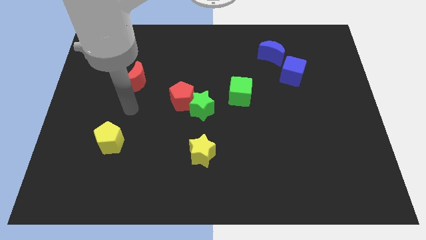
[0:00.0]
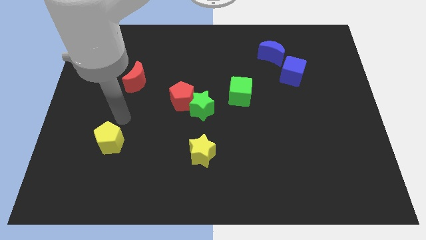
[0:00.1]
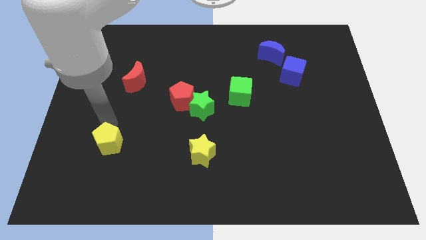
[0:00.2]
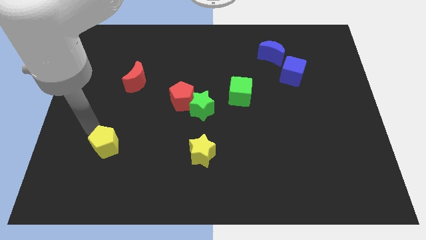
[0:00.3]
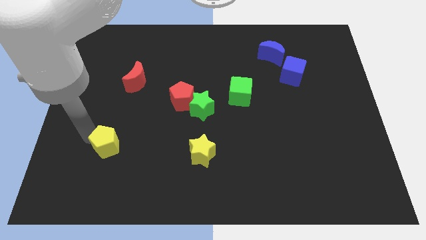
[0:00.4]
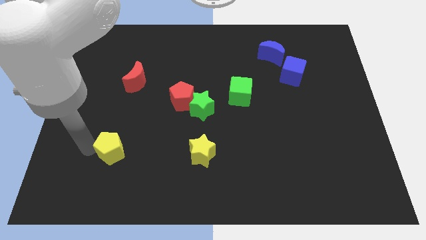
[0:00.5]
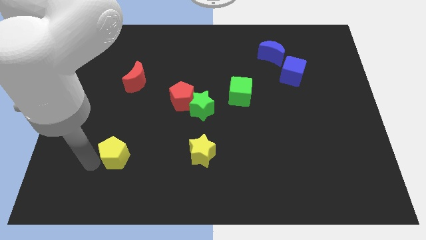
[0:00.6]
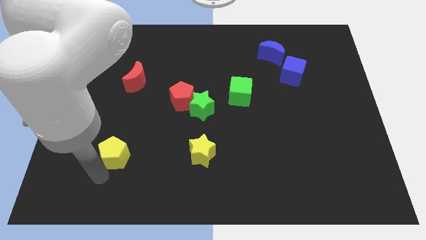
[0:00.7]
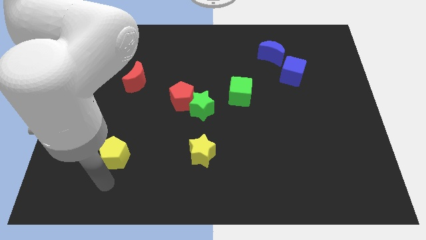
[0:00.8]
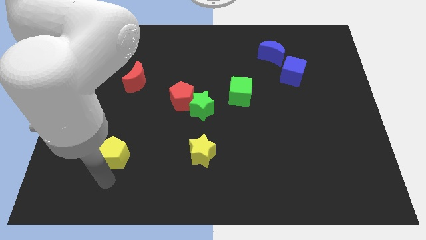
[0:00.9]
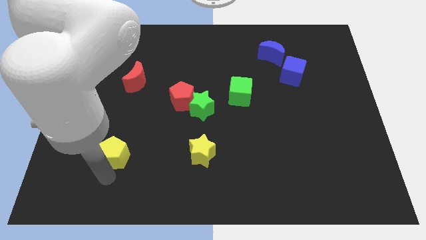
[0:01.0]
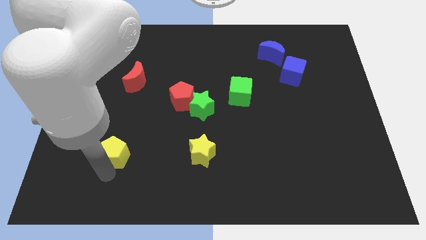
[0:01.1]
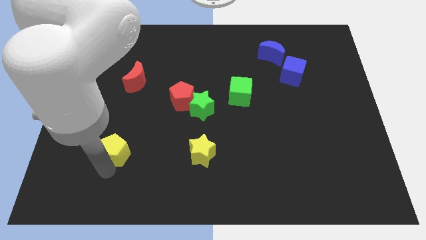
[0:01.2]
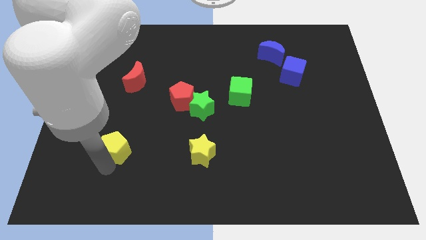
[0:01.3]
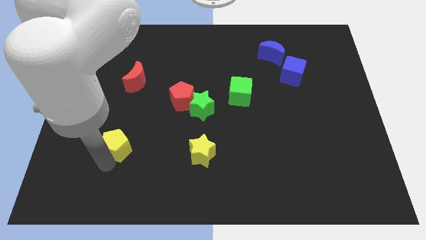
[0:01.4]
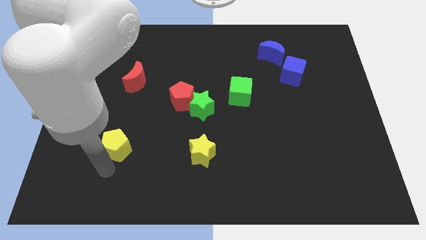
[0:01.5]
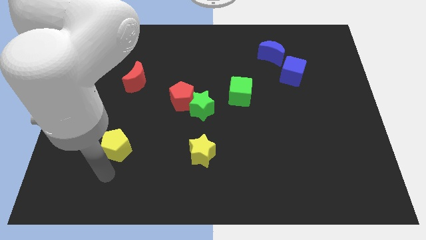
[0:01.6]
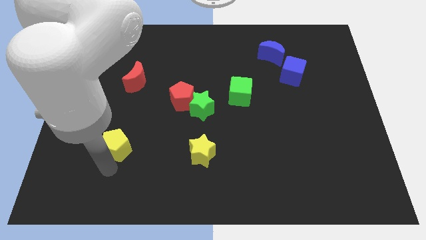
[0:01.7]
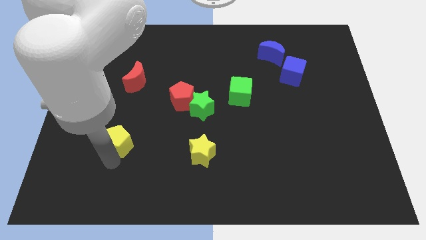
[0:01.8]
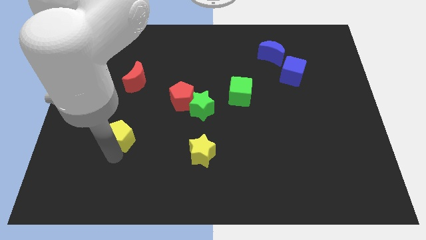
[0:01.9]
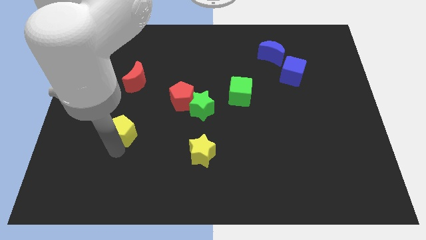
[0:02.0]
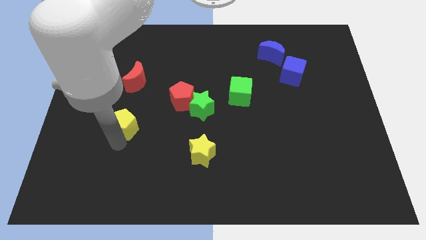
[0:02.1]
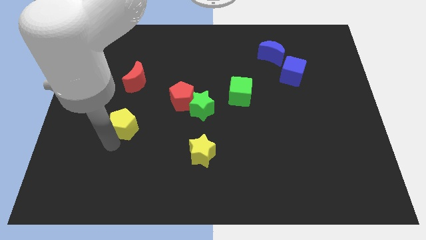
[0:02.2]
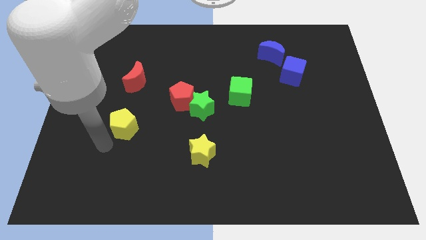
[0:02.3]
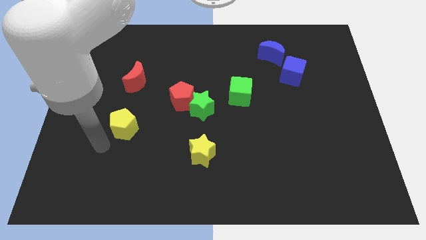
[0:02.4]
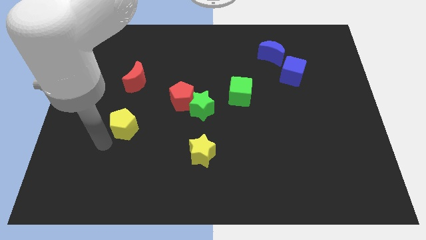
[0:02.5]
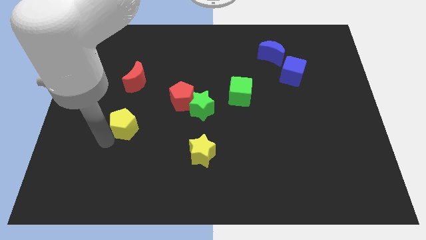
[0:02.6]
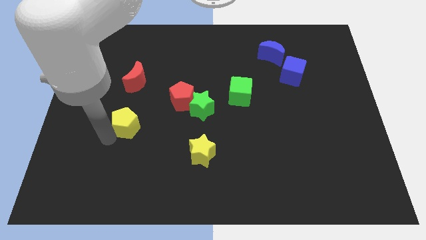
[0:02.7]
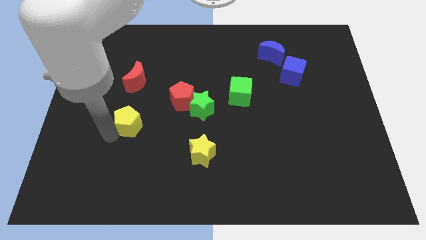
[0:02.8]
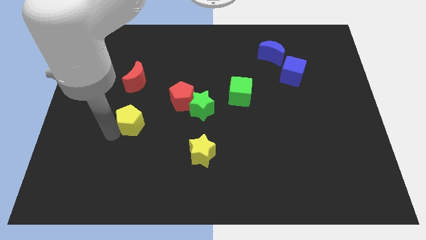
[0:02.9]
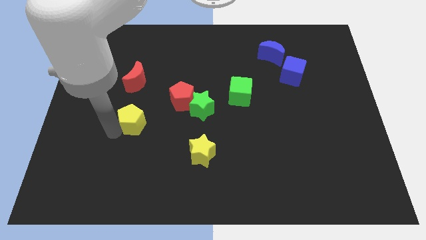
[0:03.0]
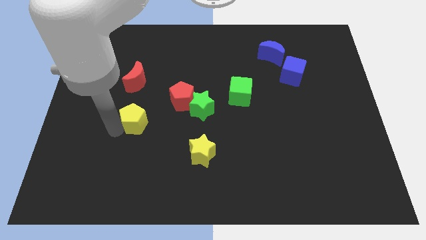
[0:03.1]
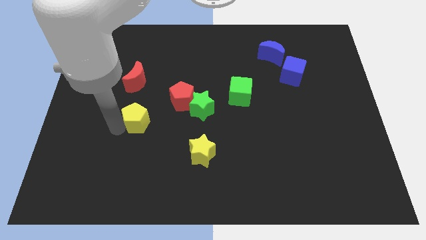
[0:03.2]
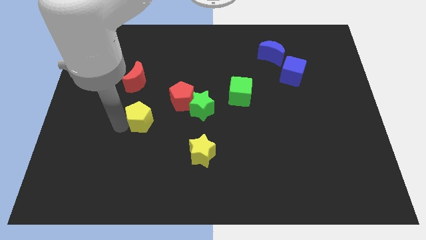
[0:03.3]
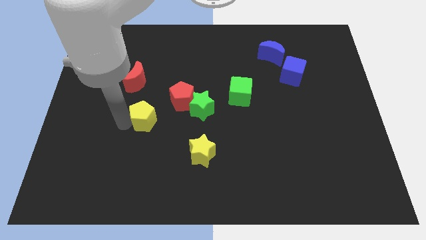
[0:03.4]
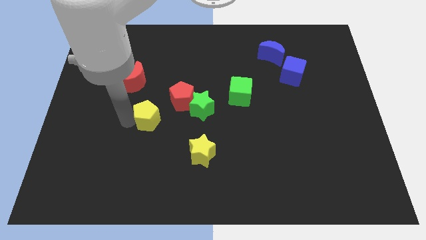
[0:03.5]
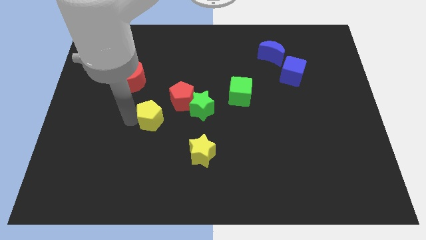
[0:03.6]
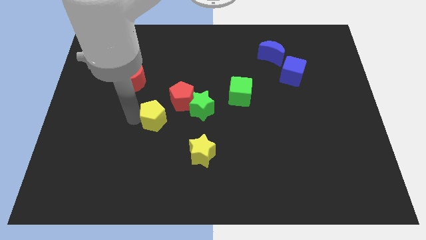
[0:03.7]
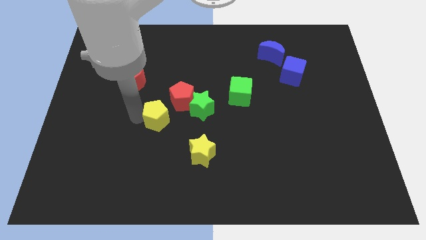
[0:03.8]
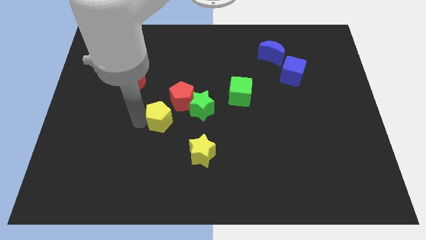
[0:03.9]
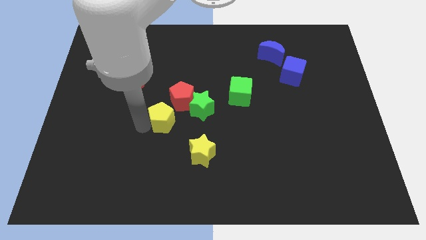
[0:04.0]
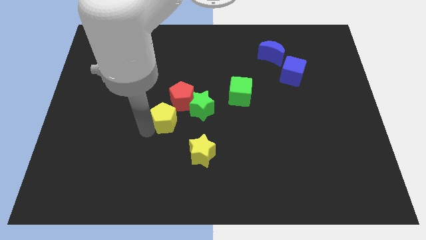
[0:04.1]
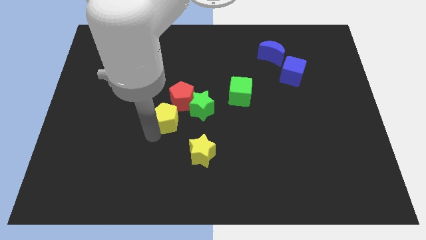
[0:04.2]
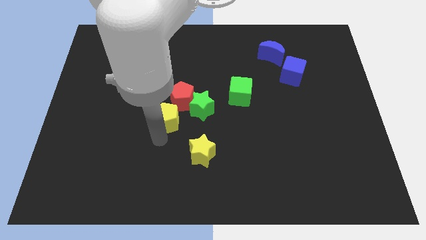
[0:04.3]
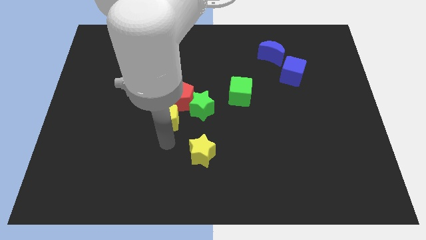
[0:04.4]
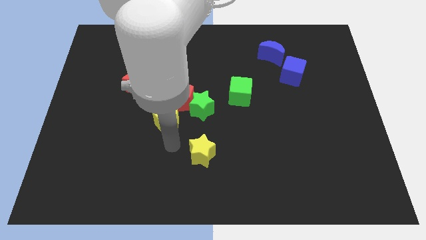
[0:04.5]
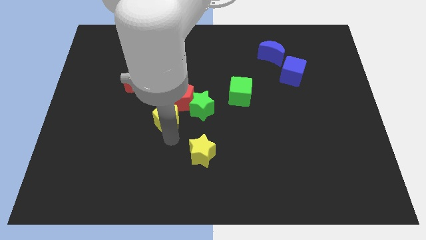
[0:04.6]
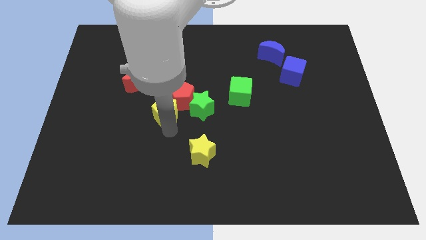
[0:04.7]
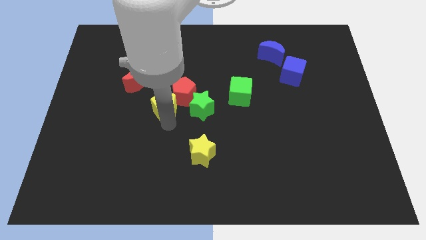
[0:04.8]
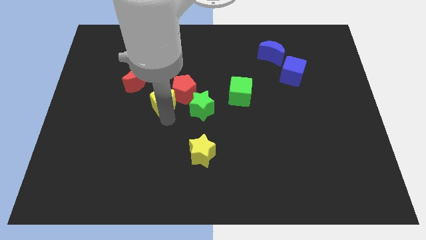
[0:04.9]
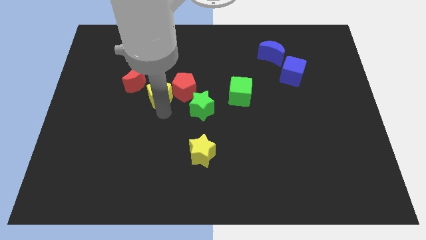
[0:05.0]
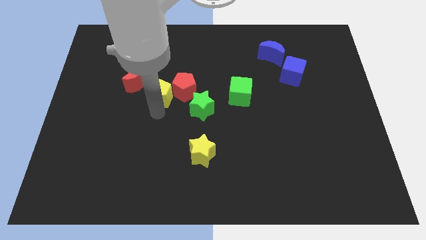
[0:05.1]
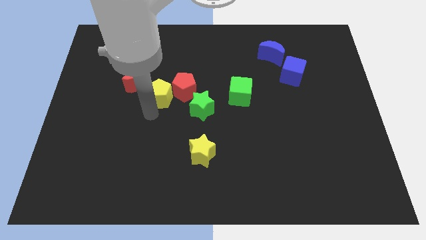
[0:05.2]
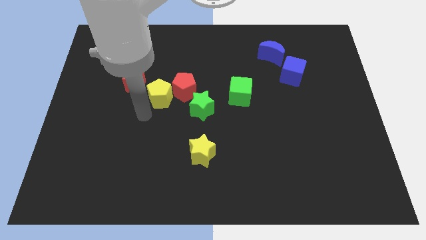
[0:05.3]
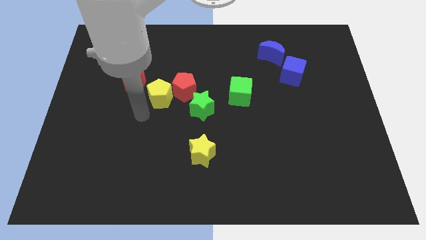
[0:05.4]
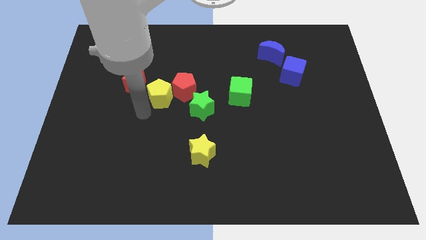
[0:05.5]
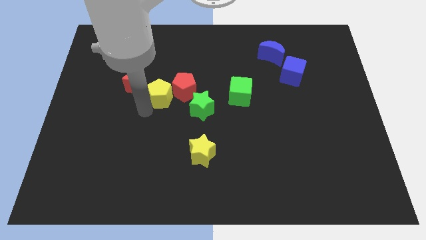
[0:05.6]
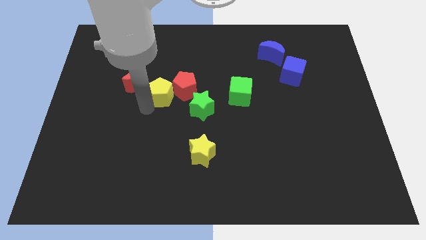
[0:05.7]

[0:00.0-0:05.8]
slide the yellow pentagon to the right side of the red moon

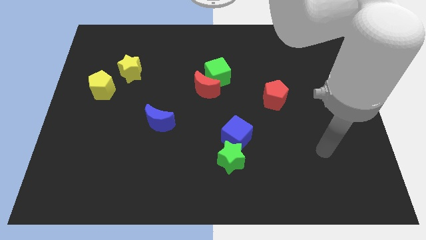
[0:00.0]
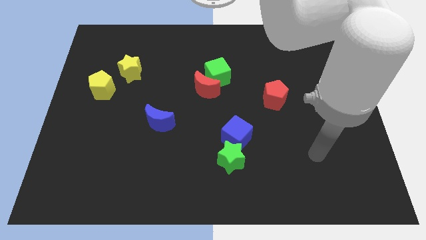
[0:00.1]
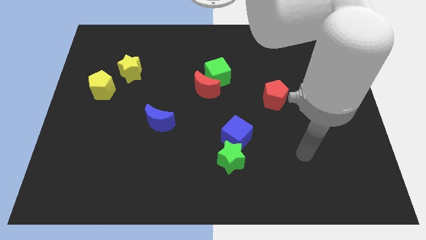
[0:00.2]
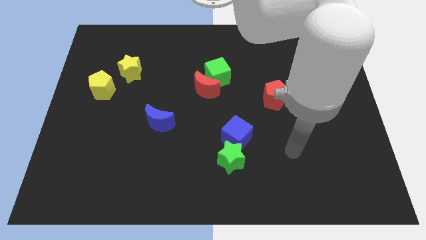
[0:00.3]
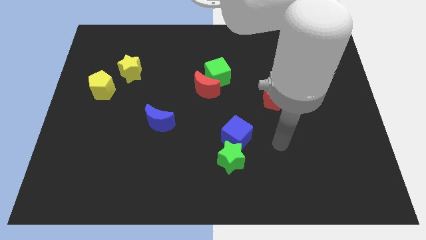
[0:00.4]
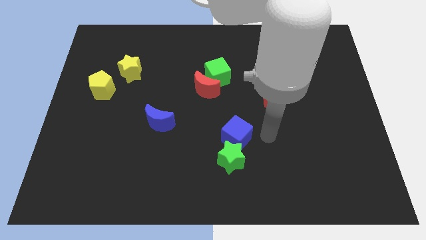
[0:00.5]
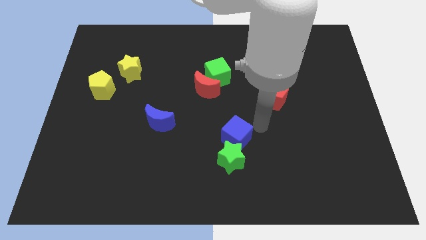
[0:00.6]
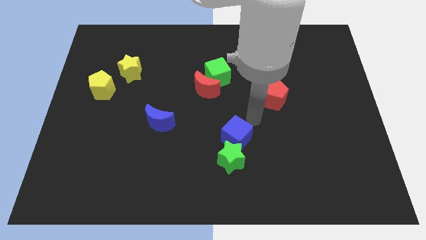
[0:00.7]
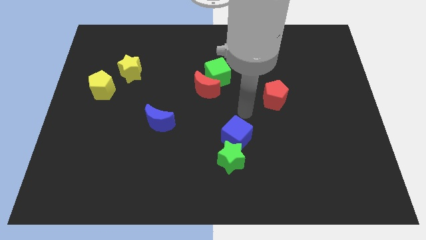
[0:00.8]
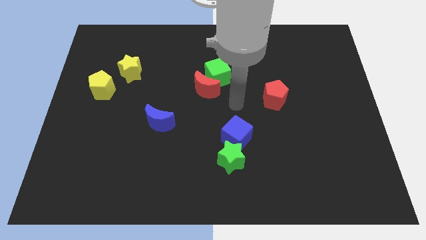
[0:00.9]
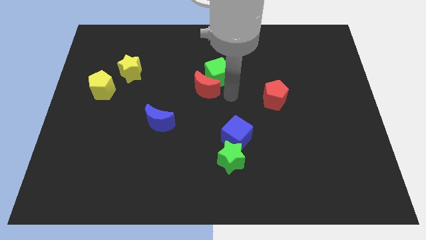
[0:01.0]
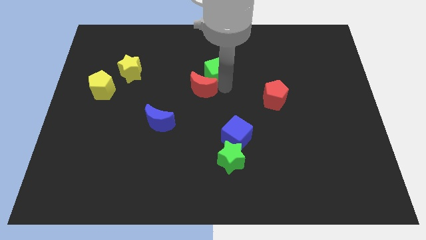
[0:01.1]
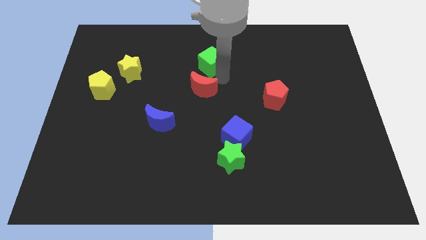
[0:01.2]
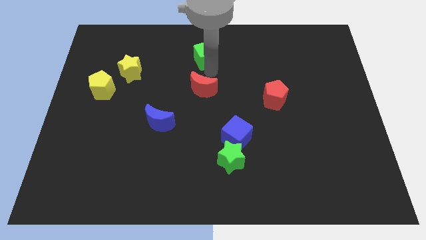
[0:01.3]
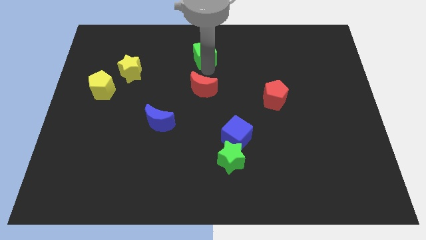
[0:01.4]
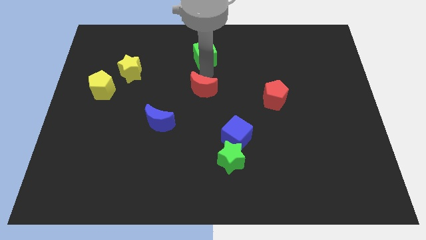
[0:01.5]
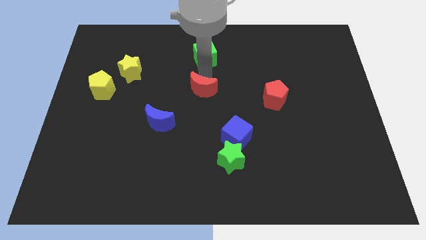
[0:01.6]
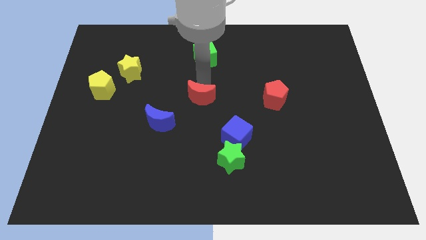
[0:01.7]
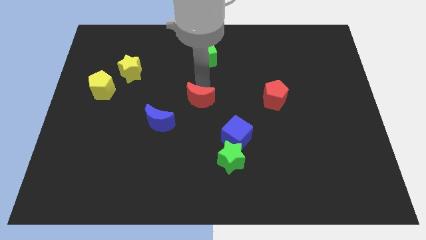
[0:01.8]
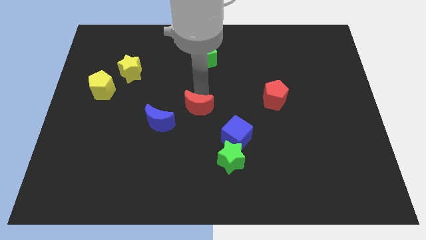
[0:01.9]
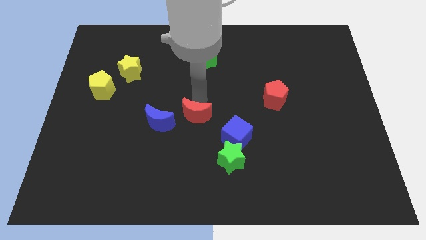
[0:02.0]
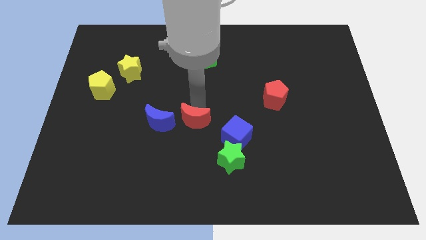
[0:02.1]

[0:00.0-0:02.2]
slide the red moon left of the blue cube
